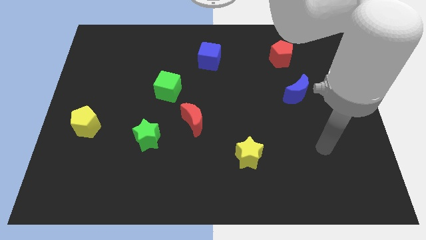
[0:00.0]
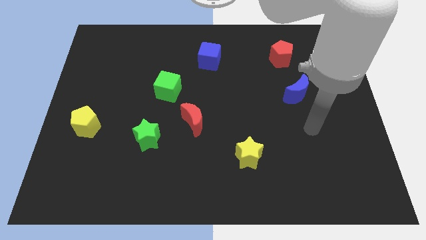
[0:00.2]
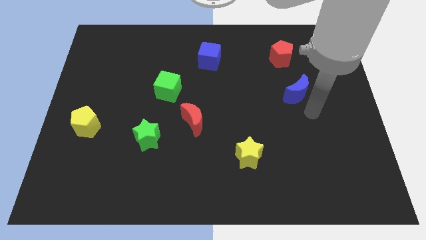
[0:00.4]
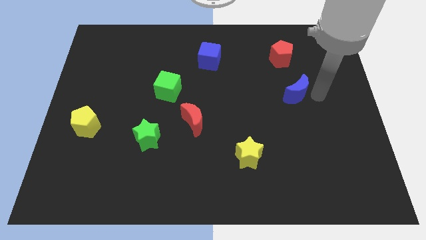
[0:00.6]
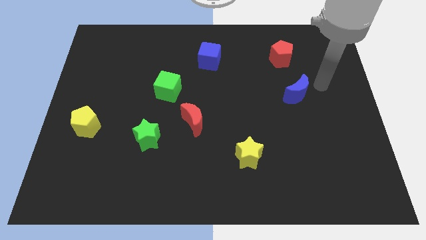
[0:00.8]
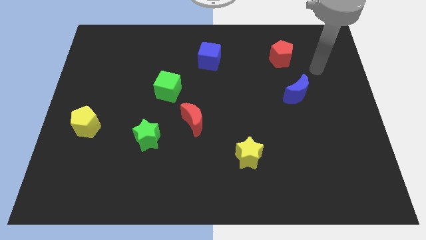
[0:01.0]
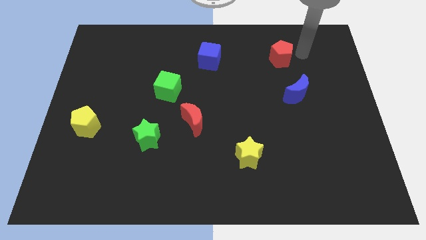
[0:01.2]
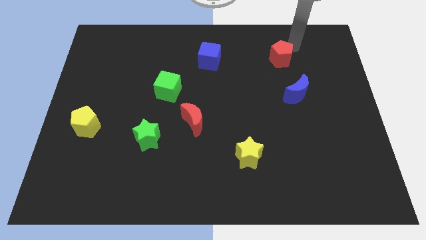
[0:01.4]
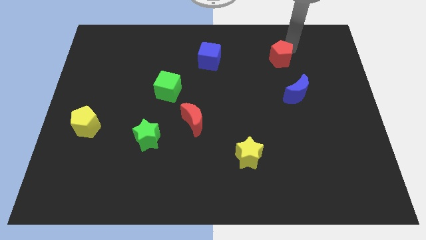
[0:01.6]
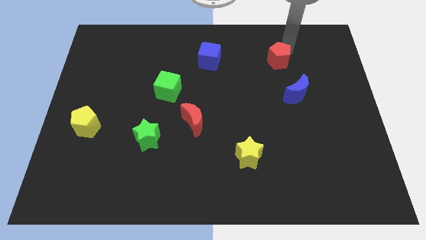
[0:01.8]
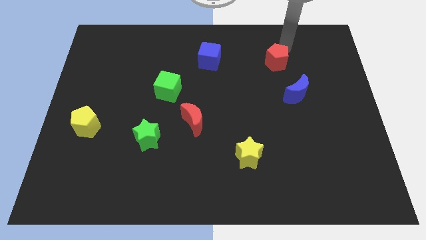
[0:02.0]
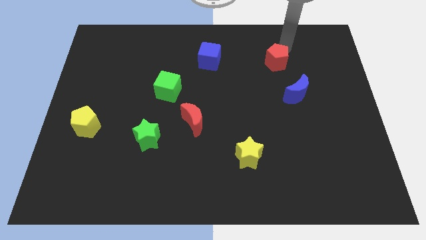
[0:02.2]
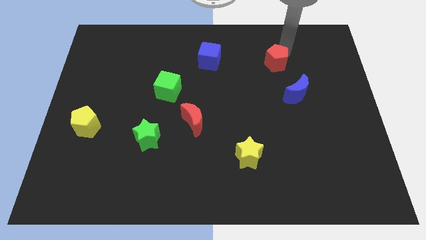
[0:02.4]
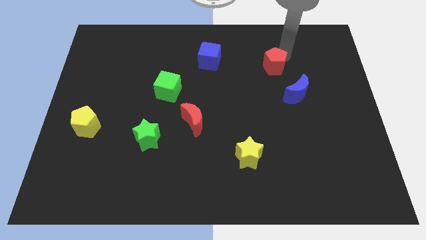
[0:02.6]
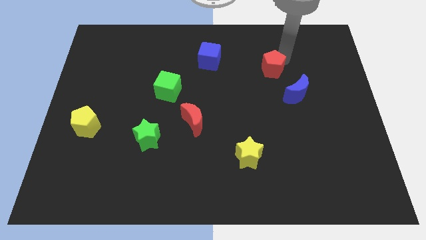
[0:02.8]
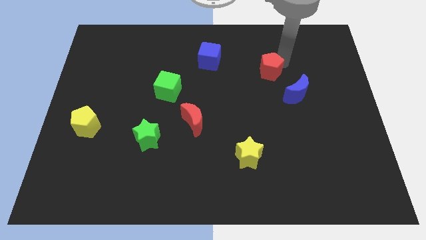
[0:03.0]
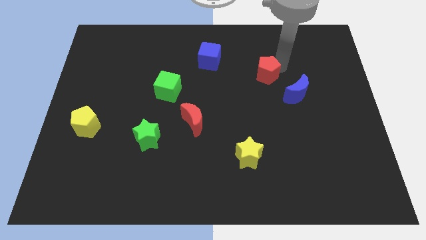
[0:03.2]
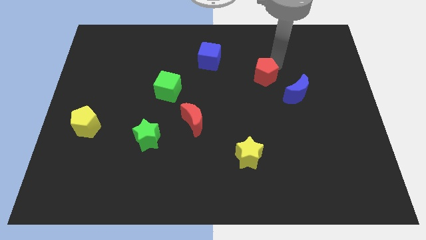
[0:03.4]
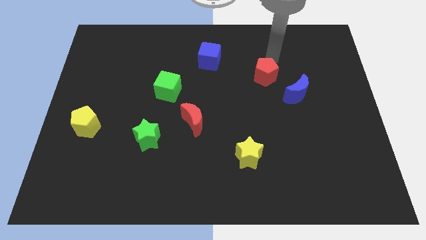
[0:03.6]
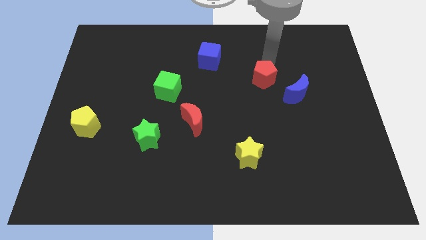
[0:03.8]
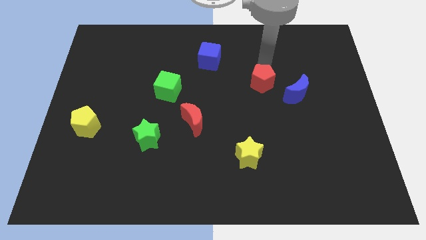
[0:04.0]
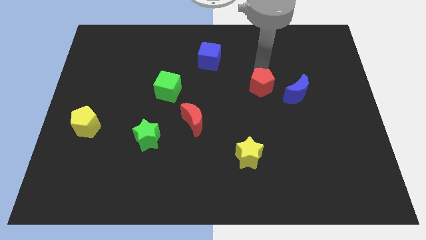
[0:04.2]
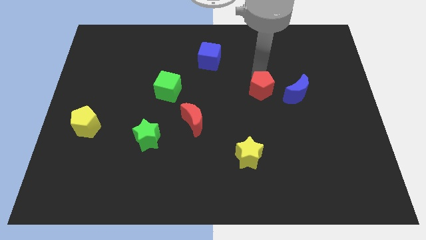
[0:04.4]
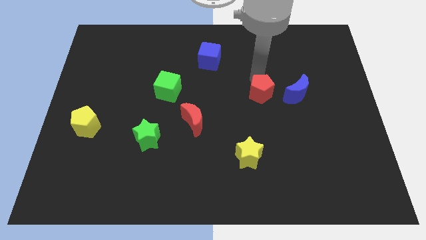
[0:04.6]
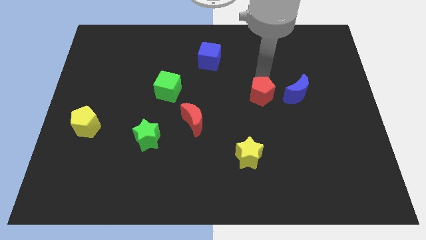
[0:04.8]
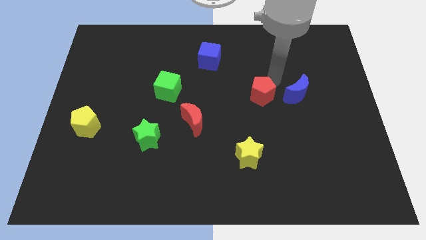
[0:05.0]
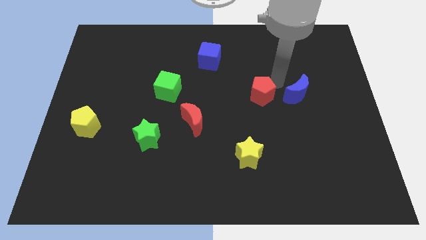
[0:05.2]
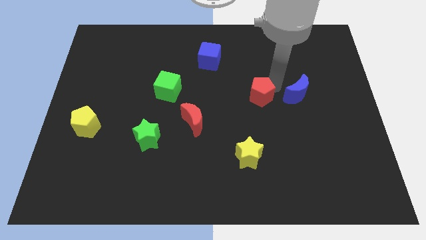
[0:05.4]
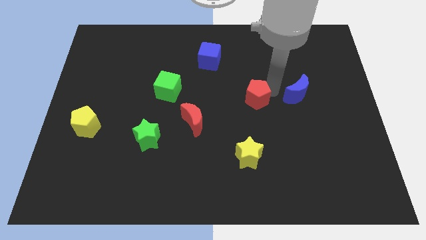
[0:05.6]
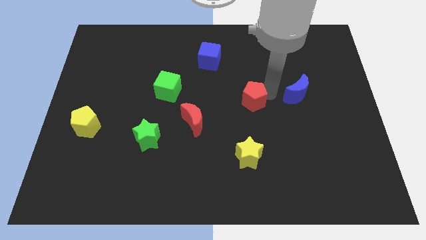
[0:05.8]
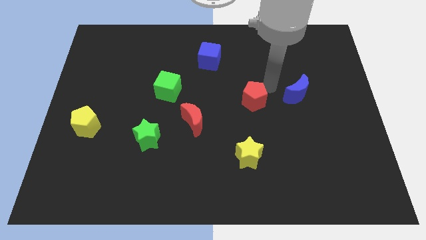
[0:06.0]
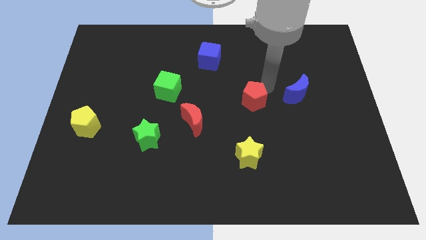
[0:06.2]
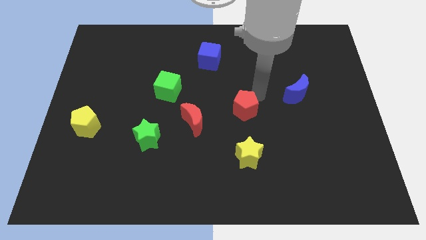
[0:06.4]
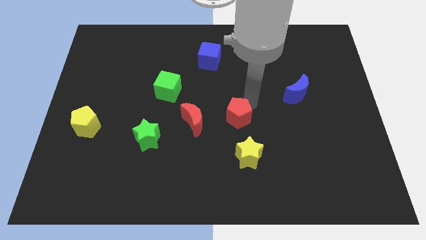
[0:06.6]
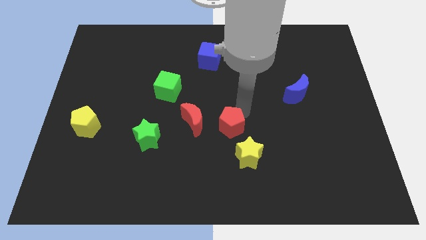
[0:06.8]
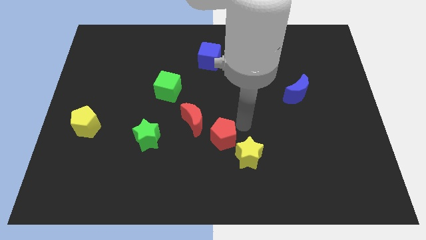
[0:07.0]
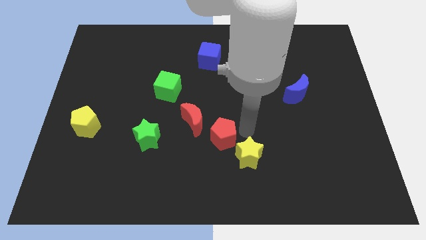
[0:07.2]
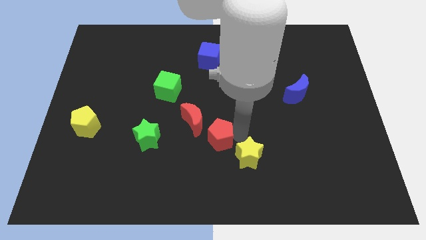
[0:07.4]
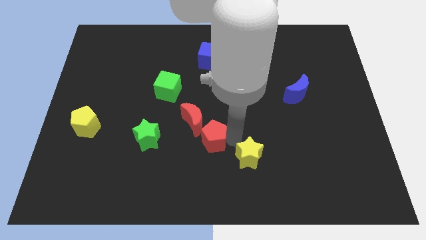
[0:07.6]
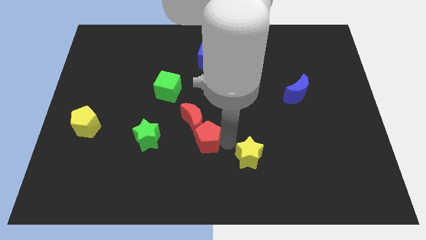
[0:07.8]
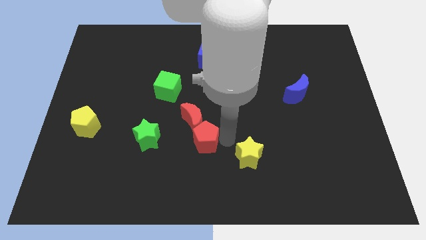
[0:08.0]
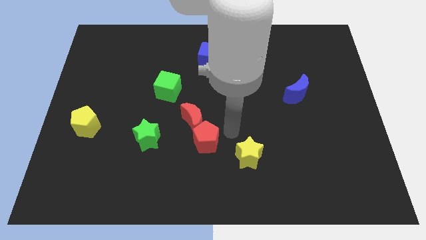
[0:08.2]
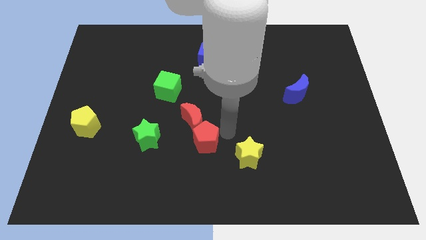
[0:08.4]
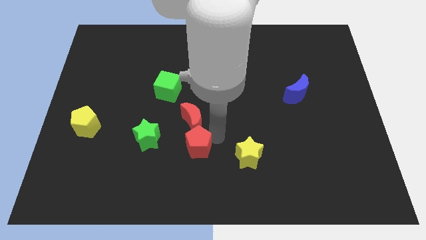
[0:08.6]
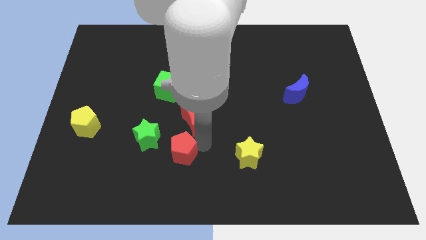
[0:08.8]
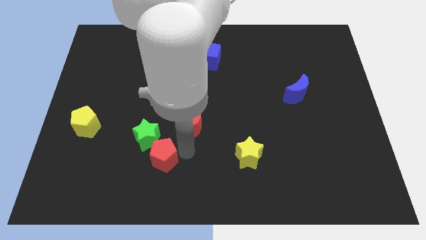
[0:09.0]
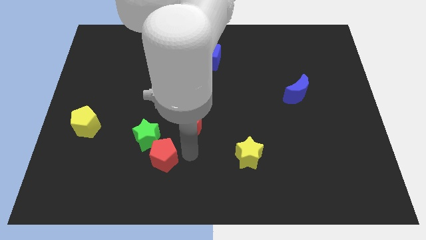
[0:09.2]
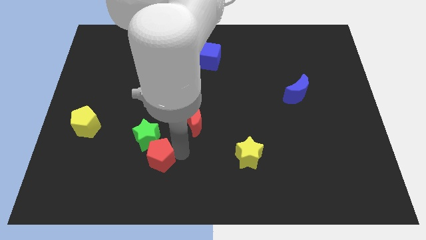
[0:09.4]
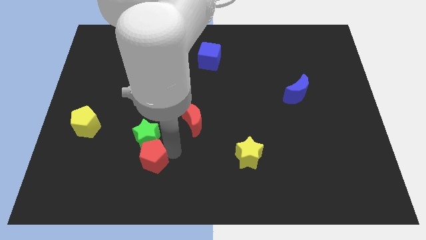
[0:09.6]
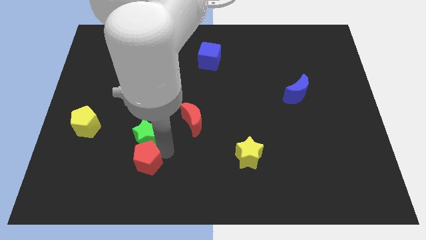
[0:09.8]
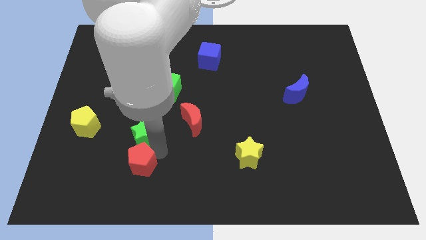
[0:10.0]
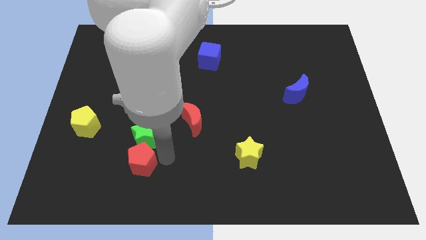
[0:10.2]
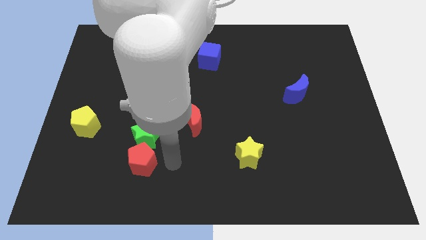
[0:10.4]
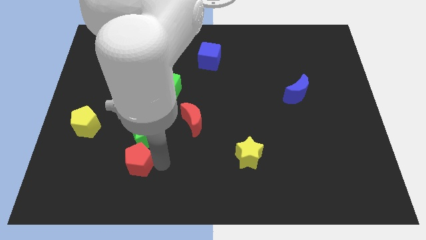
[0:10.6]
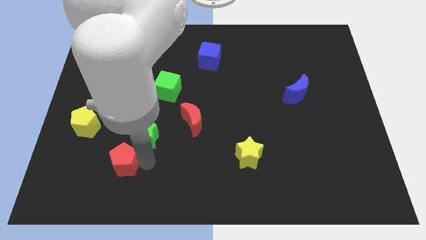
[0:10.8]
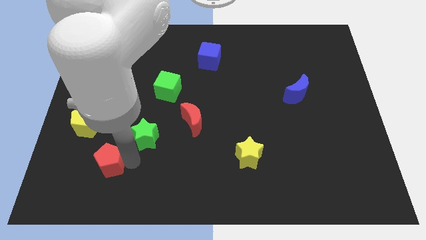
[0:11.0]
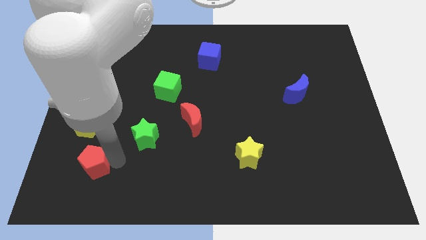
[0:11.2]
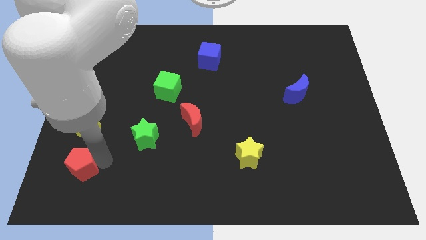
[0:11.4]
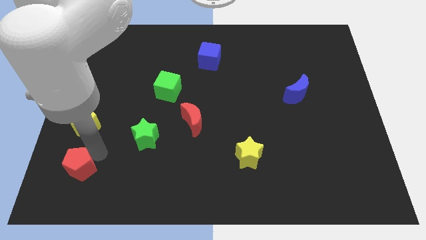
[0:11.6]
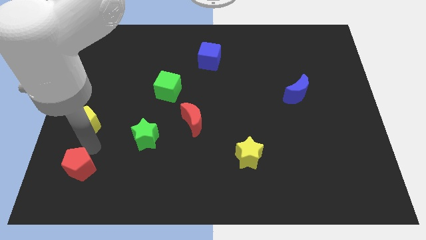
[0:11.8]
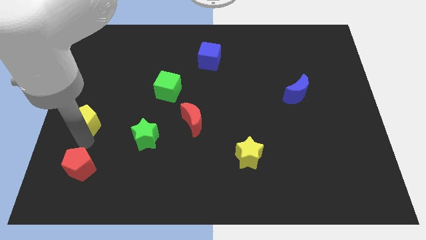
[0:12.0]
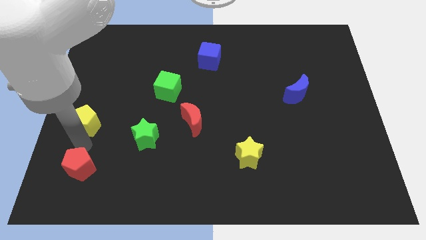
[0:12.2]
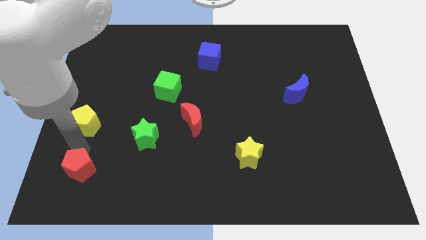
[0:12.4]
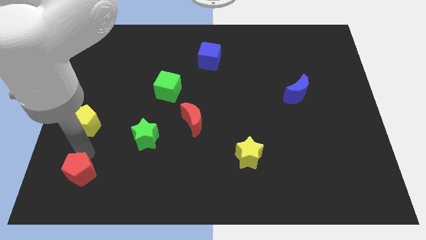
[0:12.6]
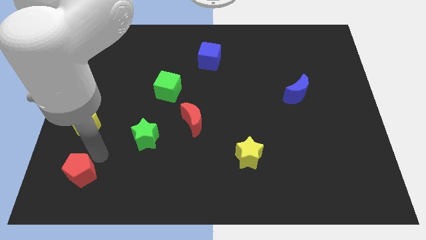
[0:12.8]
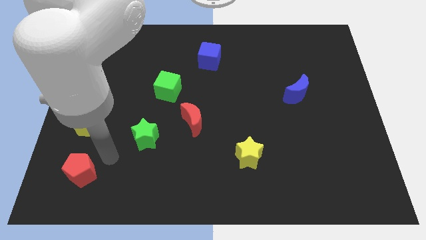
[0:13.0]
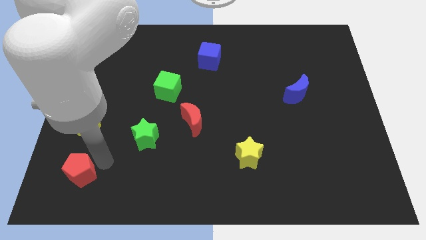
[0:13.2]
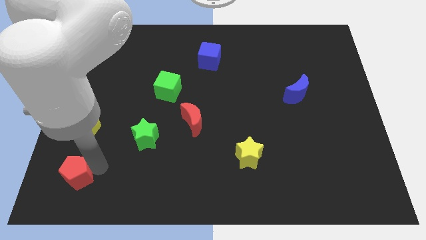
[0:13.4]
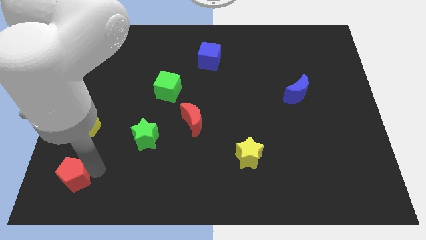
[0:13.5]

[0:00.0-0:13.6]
put the red pentagon to the bottom left corner

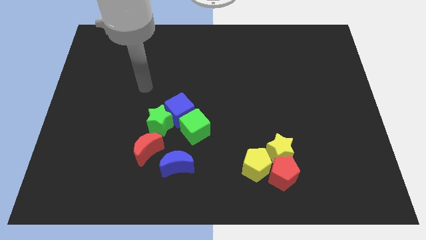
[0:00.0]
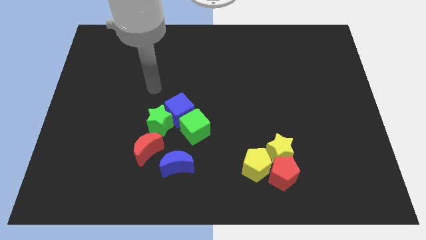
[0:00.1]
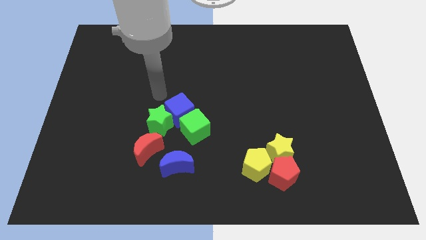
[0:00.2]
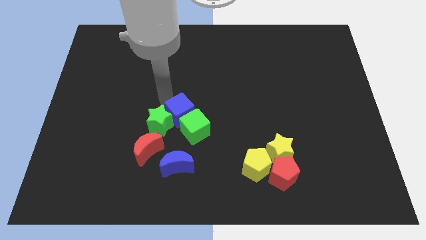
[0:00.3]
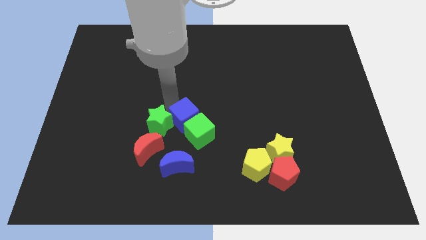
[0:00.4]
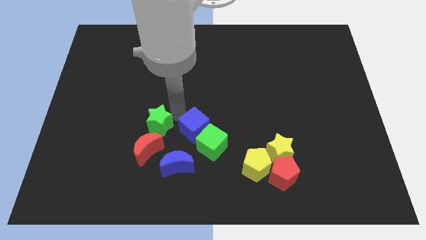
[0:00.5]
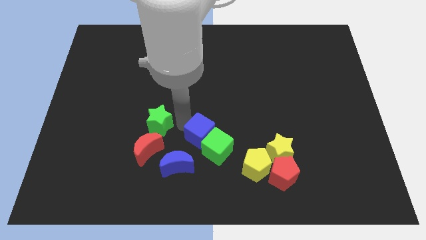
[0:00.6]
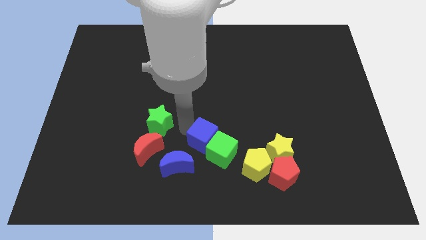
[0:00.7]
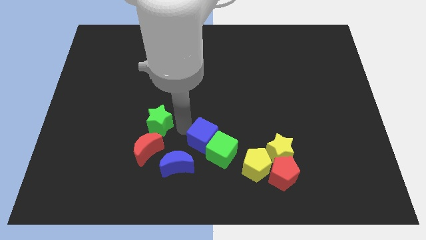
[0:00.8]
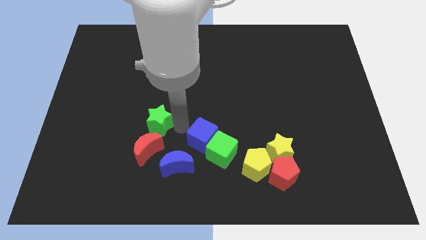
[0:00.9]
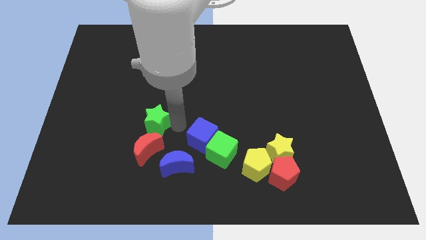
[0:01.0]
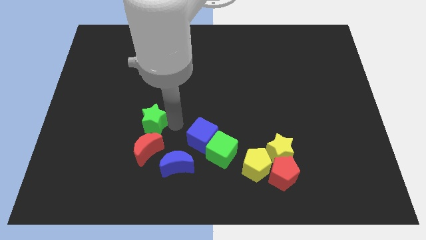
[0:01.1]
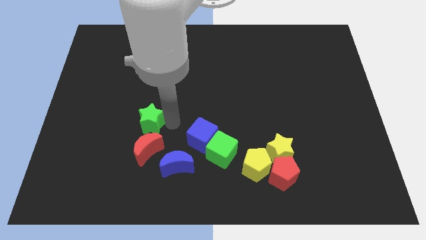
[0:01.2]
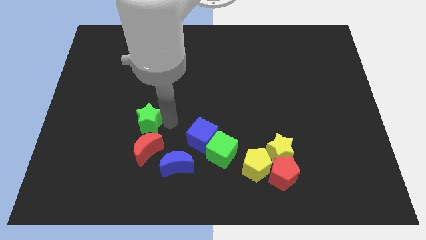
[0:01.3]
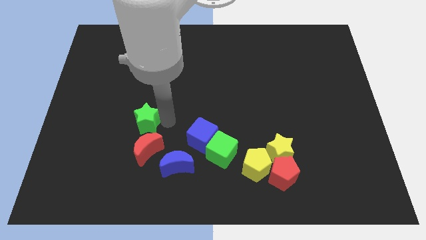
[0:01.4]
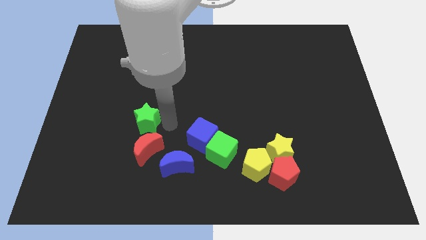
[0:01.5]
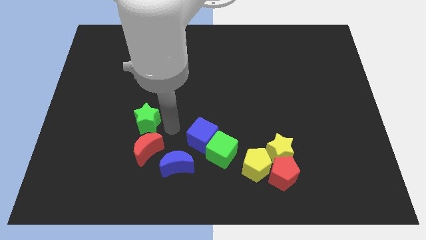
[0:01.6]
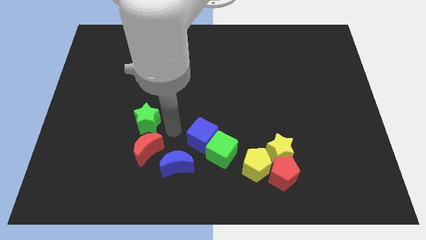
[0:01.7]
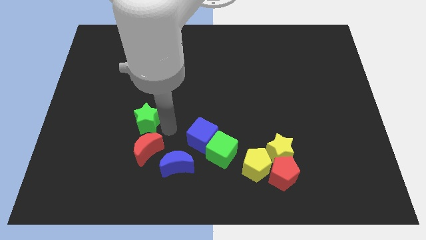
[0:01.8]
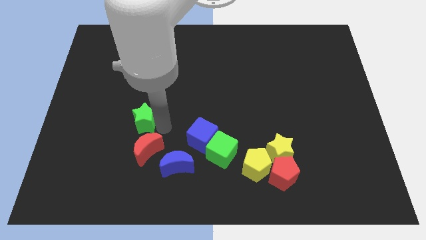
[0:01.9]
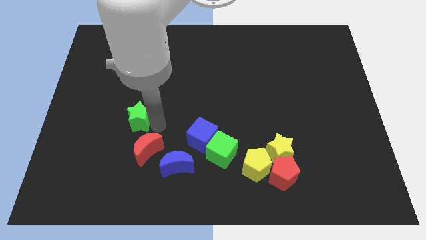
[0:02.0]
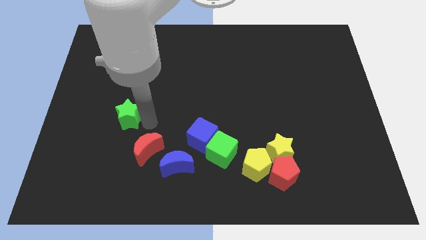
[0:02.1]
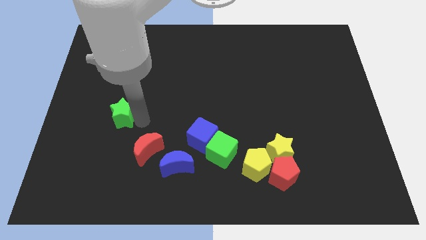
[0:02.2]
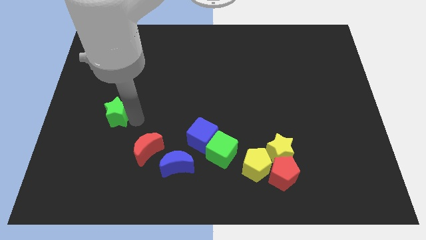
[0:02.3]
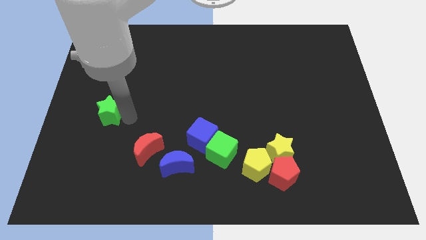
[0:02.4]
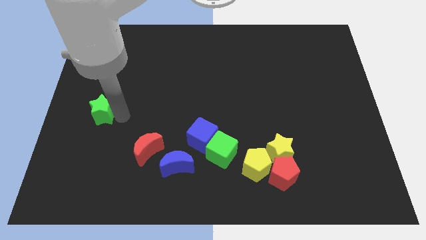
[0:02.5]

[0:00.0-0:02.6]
move the green star to the left side
